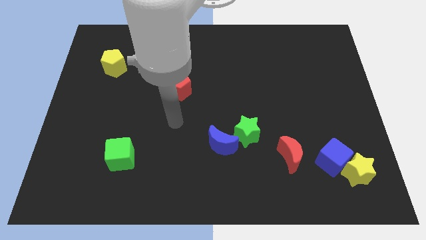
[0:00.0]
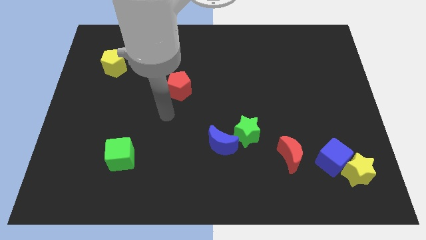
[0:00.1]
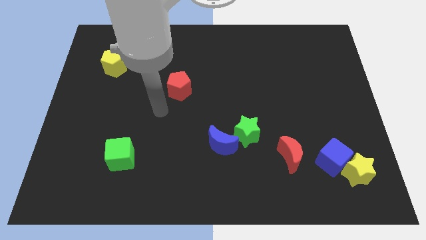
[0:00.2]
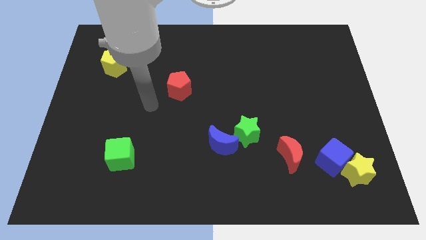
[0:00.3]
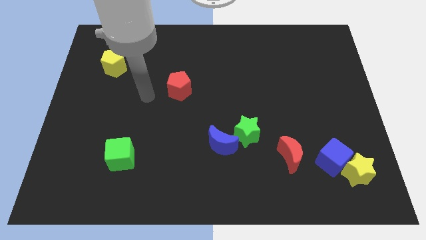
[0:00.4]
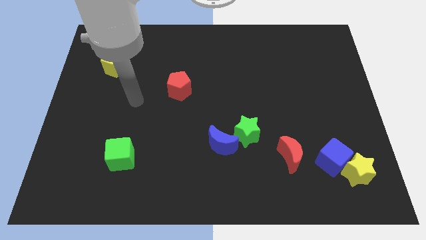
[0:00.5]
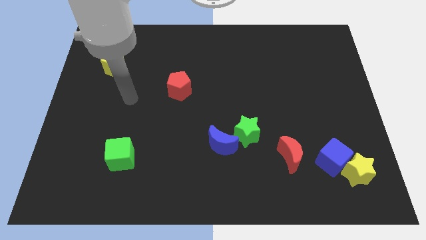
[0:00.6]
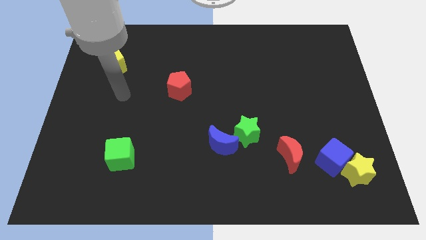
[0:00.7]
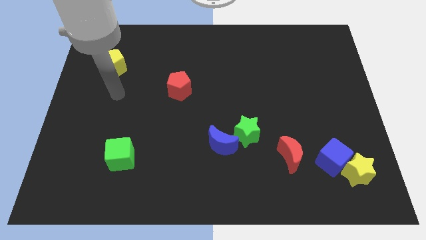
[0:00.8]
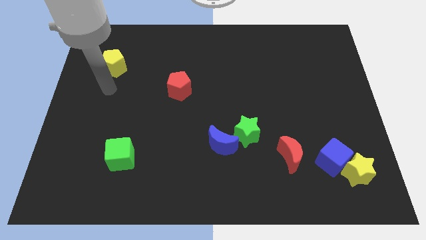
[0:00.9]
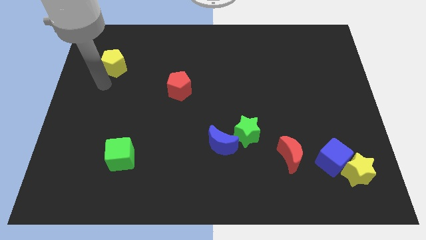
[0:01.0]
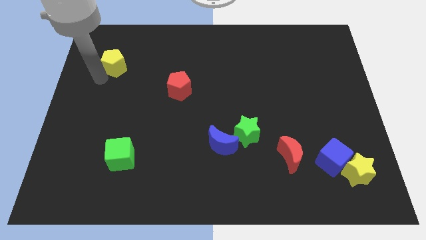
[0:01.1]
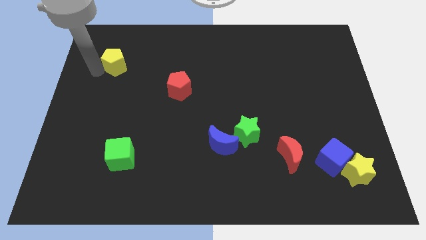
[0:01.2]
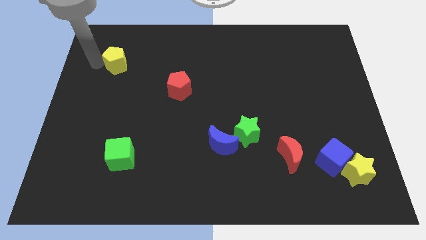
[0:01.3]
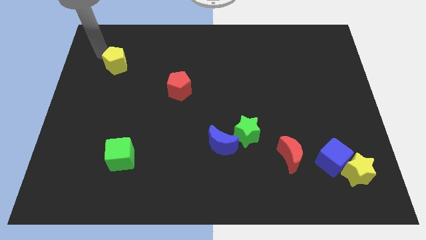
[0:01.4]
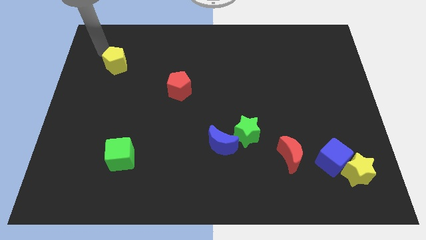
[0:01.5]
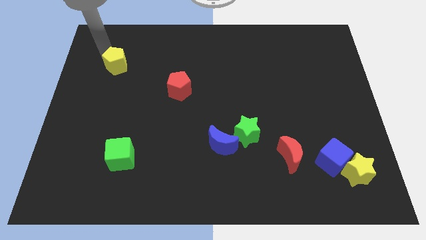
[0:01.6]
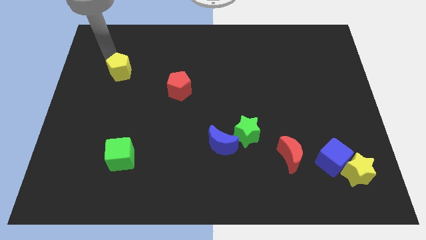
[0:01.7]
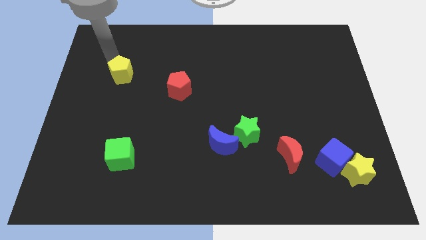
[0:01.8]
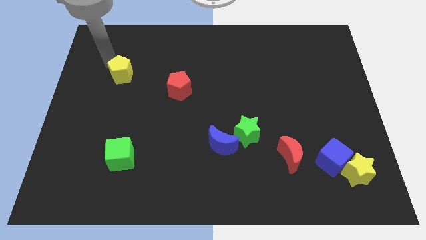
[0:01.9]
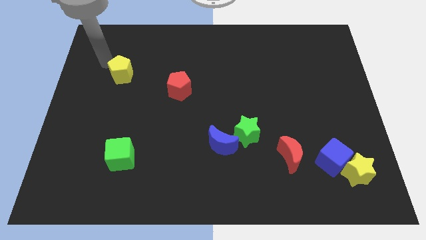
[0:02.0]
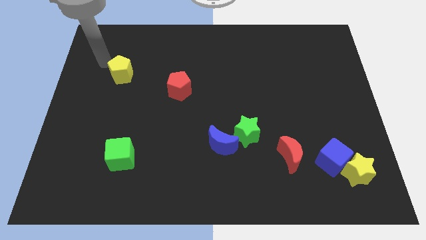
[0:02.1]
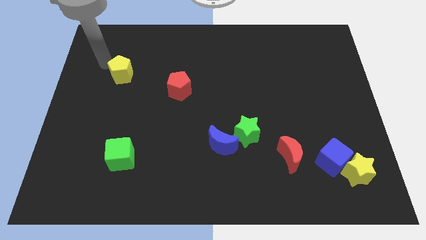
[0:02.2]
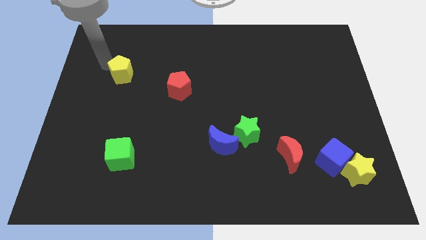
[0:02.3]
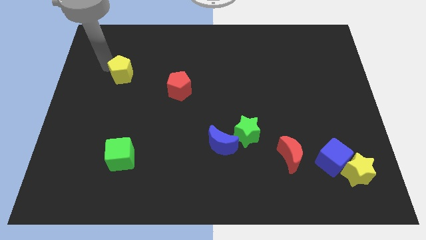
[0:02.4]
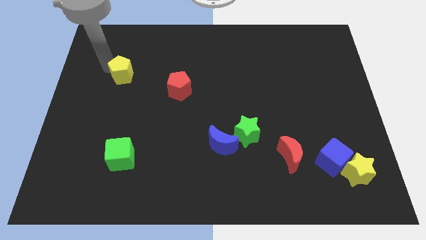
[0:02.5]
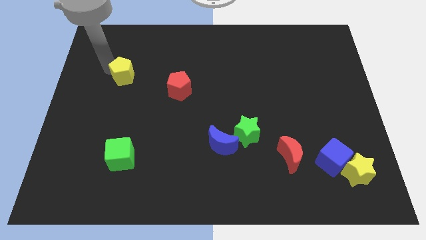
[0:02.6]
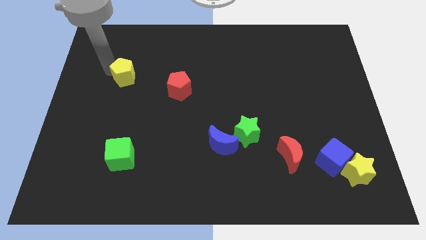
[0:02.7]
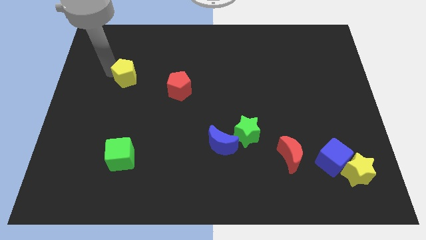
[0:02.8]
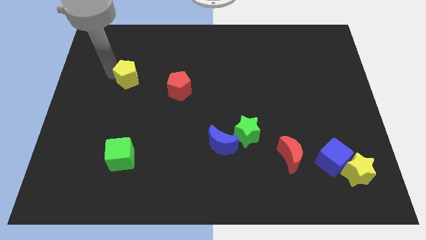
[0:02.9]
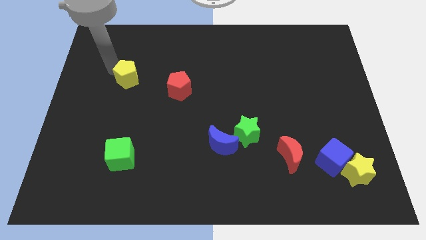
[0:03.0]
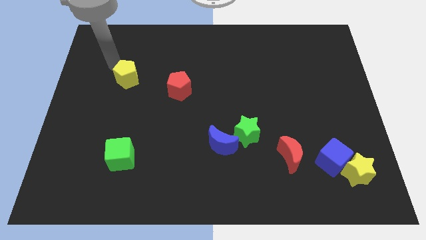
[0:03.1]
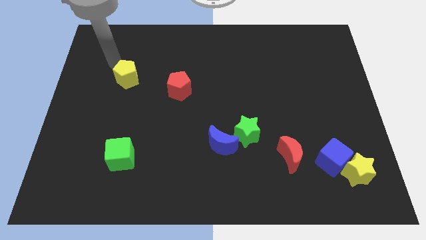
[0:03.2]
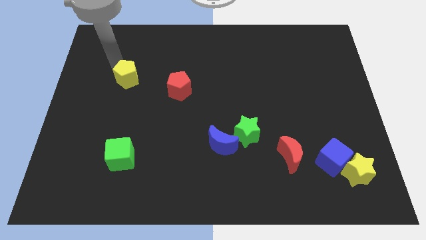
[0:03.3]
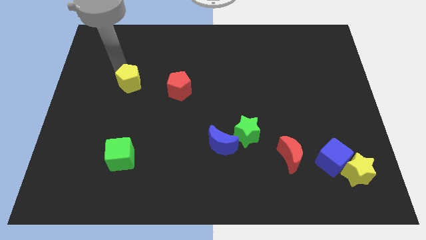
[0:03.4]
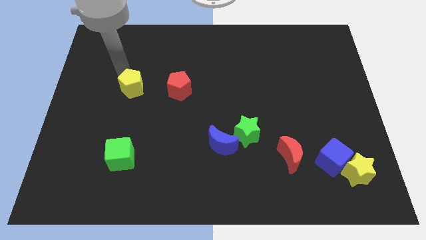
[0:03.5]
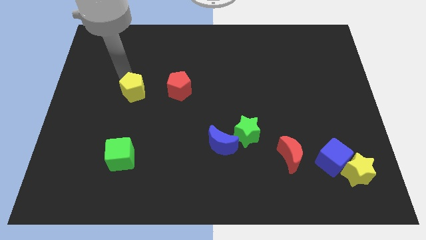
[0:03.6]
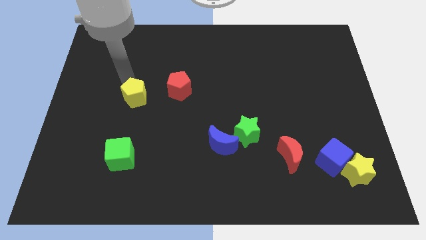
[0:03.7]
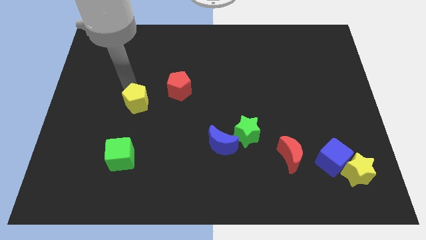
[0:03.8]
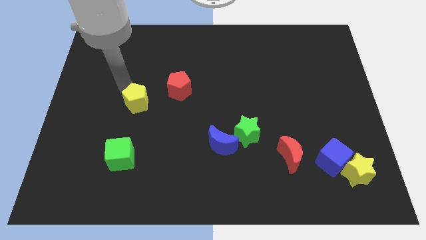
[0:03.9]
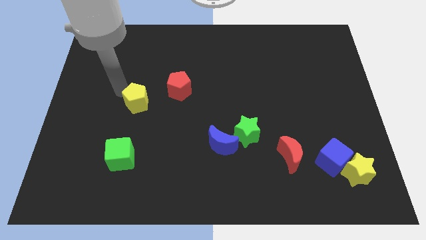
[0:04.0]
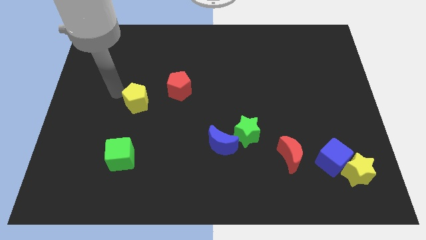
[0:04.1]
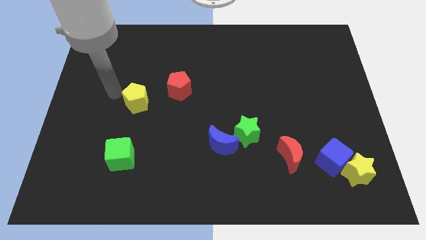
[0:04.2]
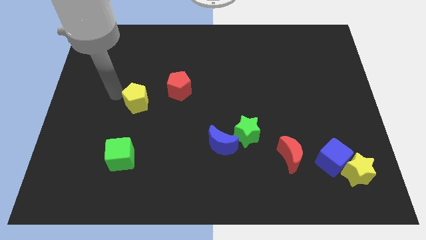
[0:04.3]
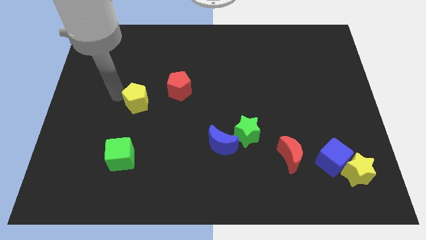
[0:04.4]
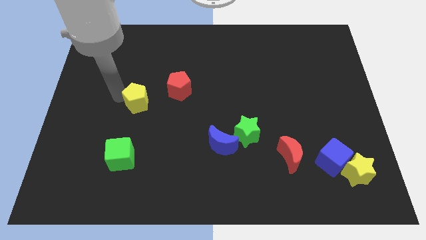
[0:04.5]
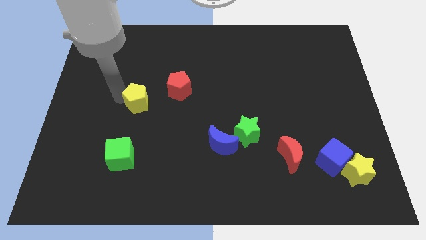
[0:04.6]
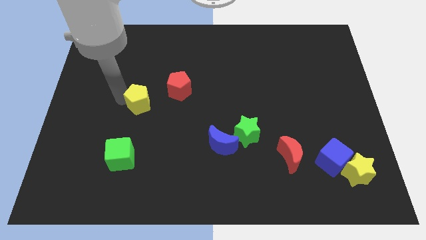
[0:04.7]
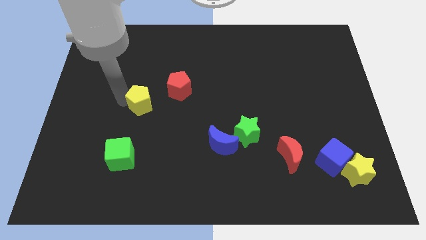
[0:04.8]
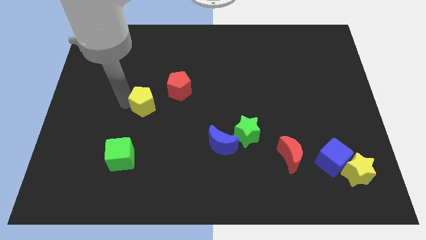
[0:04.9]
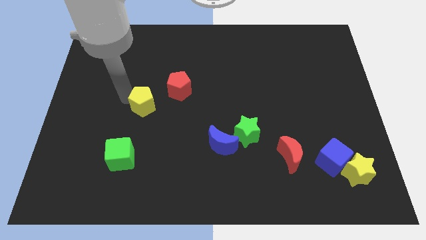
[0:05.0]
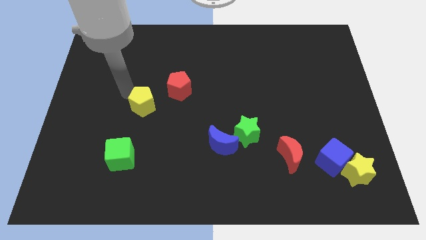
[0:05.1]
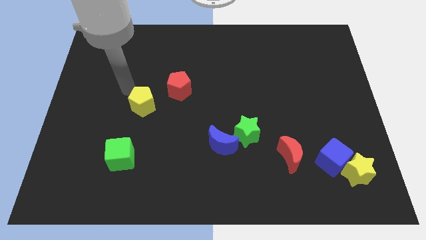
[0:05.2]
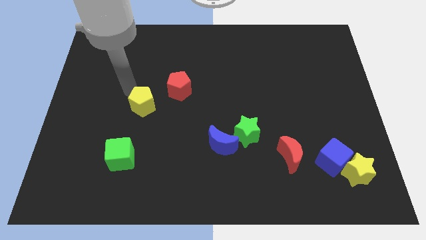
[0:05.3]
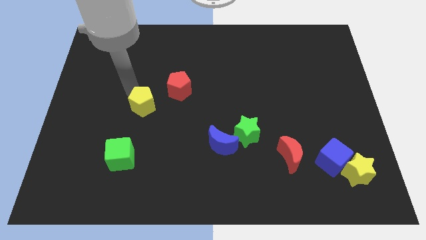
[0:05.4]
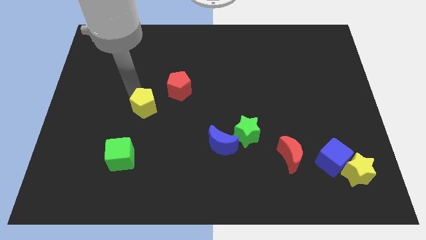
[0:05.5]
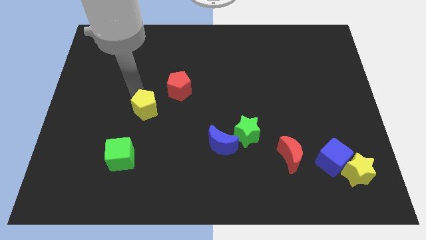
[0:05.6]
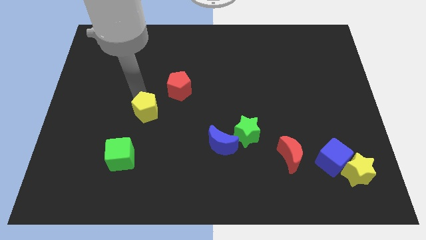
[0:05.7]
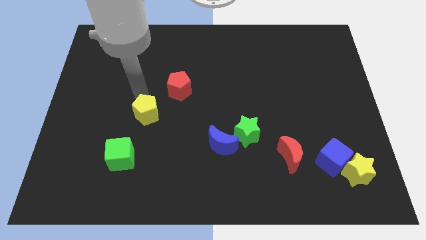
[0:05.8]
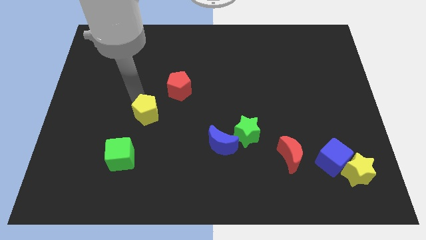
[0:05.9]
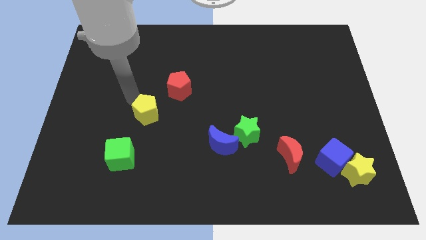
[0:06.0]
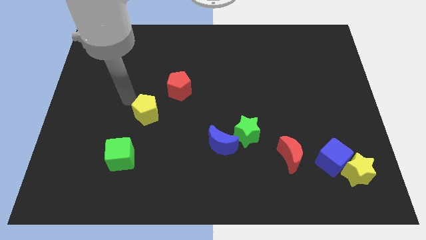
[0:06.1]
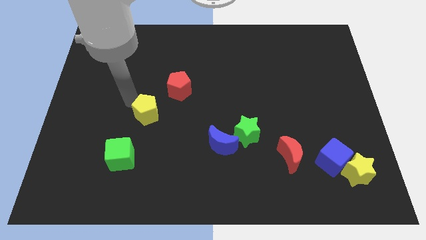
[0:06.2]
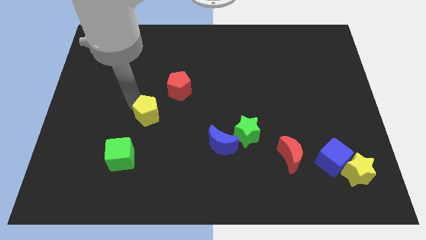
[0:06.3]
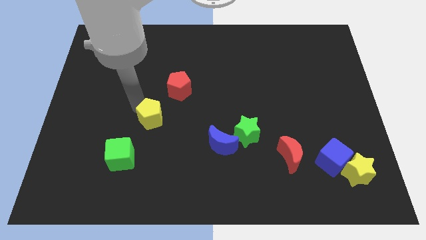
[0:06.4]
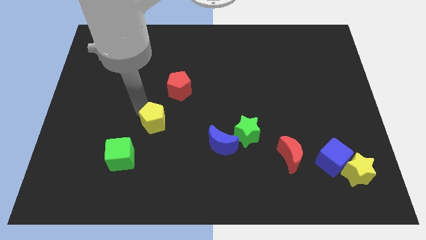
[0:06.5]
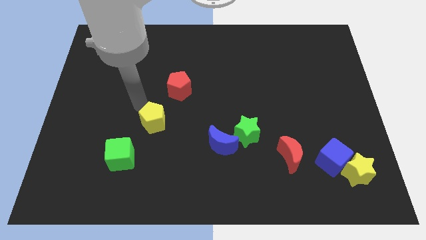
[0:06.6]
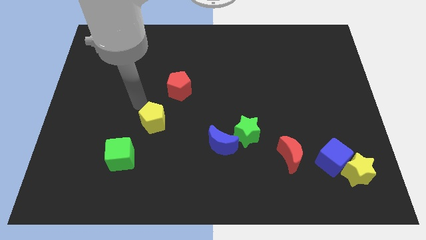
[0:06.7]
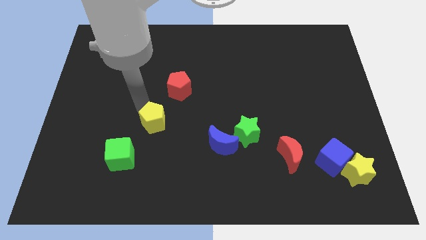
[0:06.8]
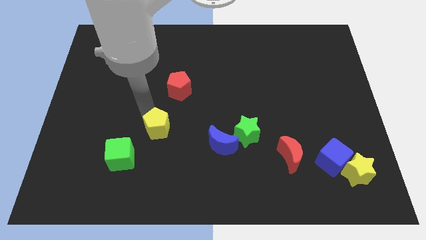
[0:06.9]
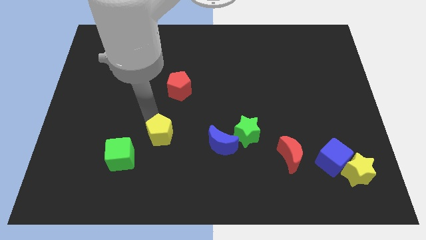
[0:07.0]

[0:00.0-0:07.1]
push the yellow pentagon to the left side of the blue moon

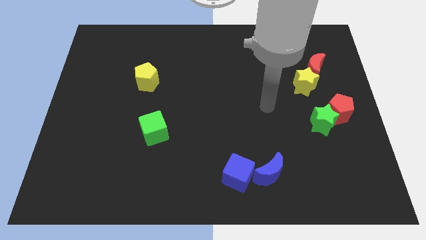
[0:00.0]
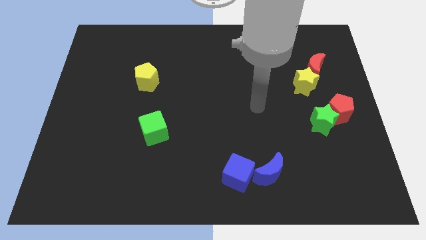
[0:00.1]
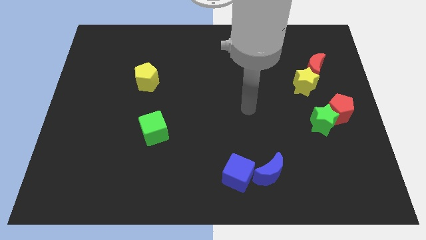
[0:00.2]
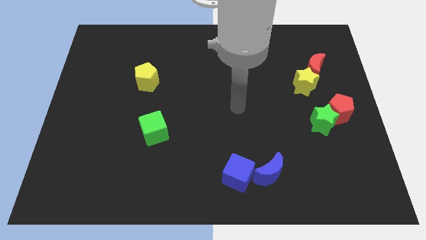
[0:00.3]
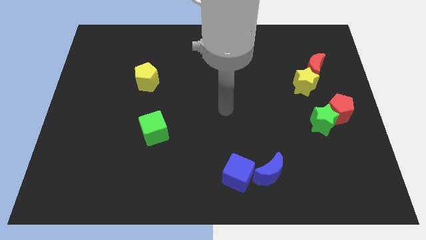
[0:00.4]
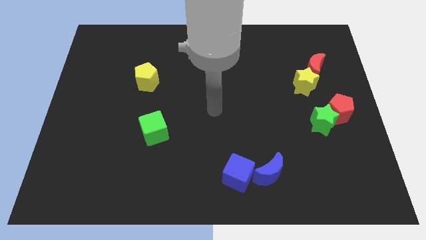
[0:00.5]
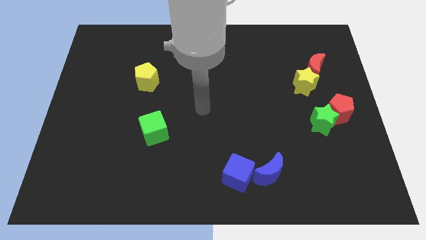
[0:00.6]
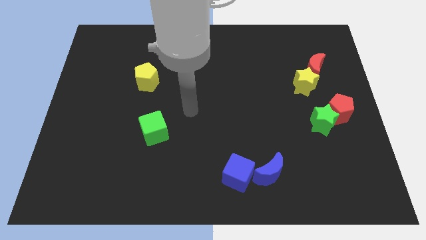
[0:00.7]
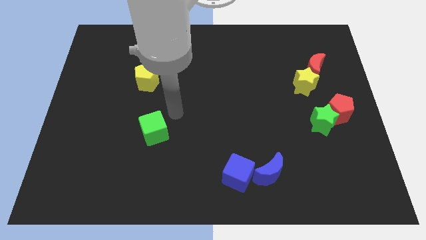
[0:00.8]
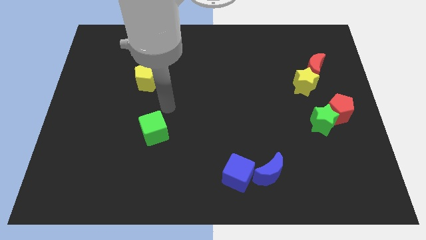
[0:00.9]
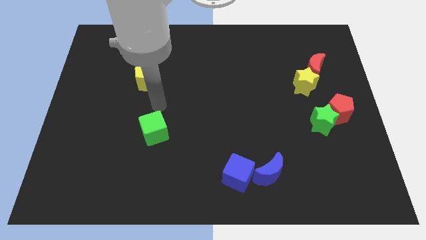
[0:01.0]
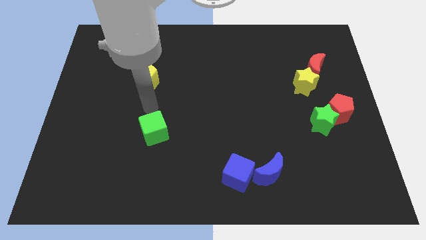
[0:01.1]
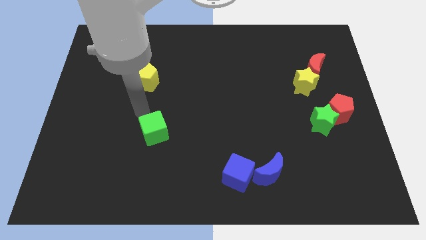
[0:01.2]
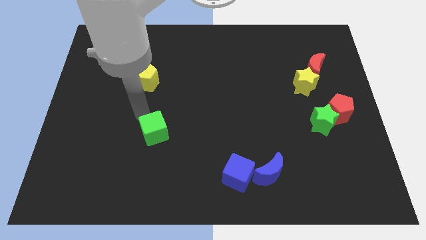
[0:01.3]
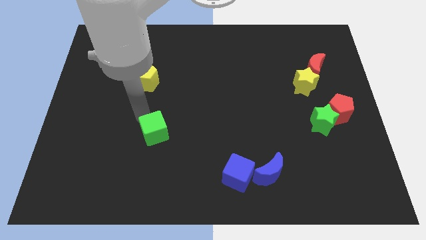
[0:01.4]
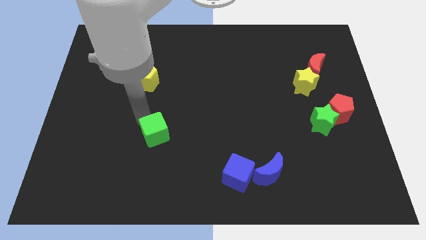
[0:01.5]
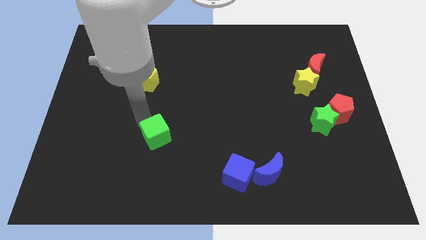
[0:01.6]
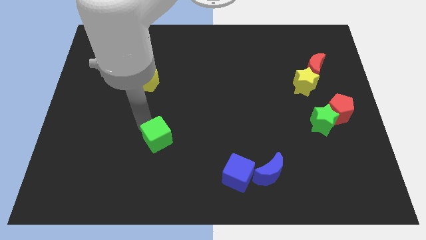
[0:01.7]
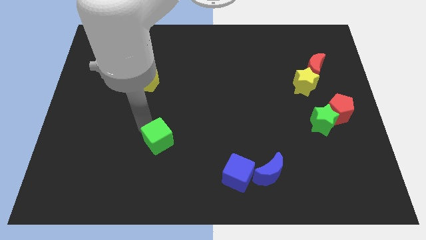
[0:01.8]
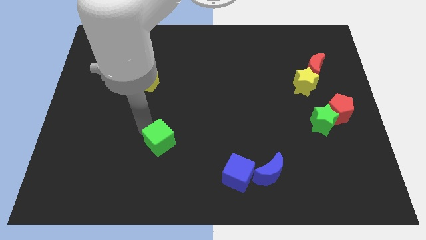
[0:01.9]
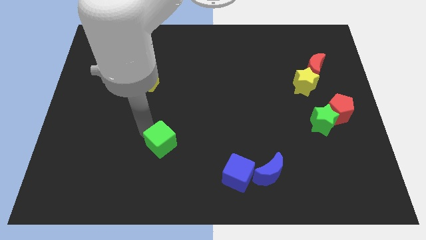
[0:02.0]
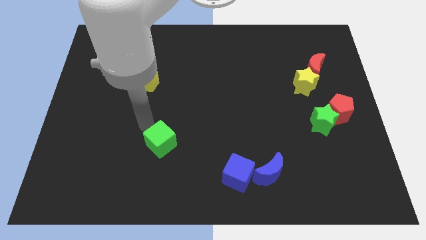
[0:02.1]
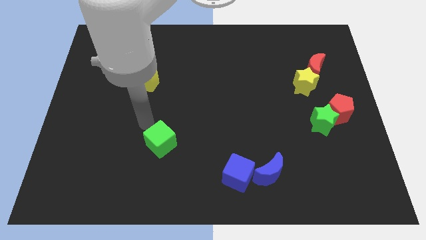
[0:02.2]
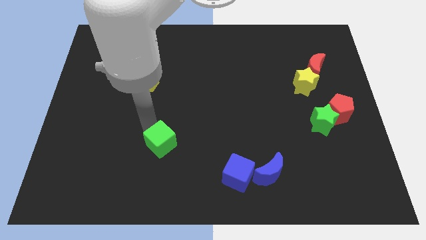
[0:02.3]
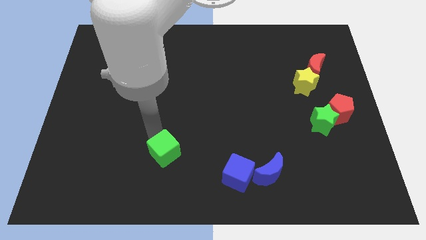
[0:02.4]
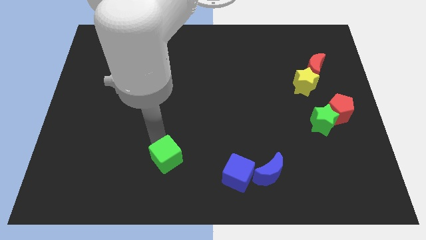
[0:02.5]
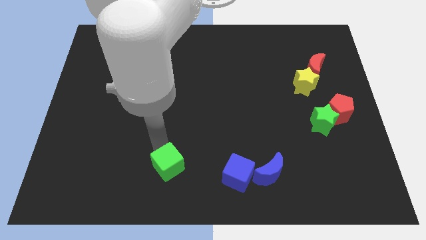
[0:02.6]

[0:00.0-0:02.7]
slide the green cube left of the blue cube
